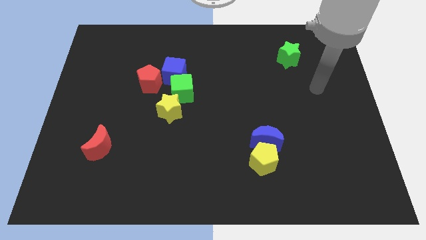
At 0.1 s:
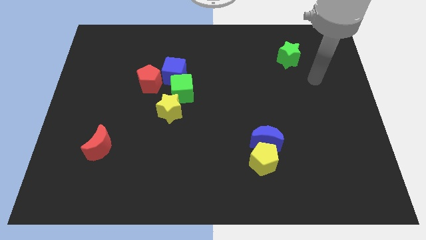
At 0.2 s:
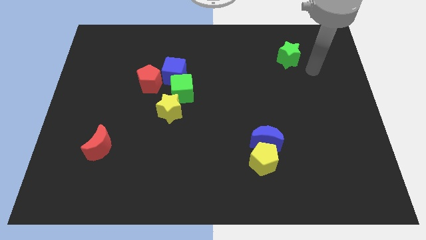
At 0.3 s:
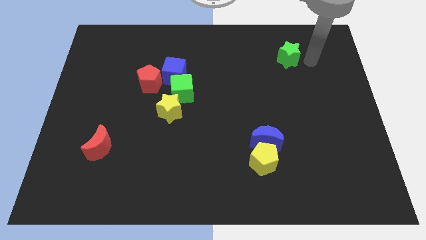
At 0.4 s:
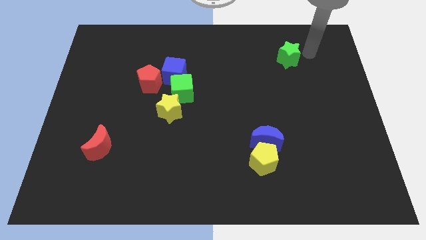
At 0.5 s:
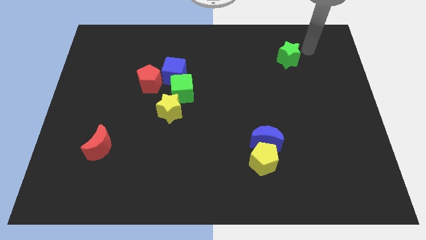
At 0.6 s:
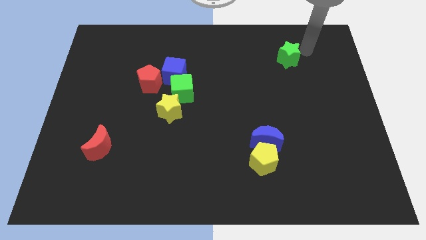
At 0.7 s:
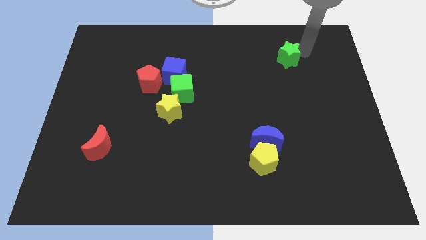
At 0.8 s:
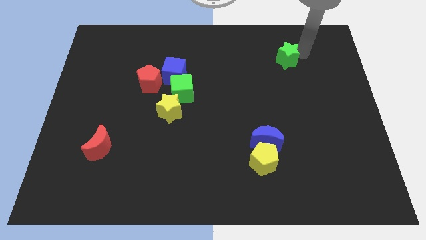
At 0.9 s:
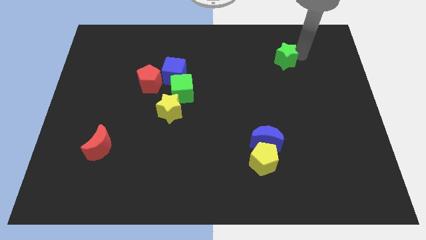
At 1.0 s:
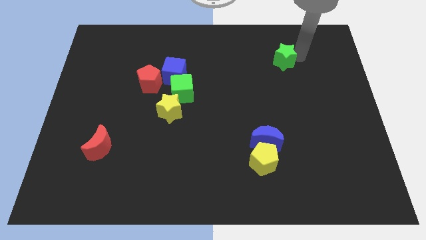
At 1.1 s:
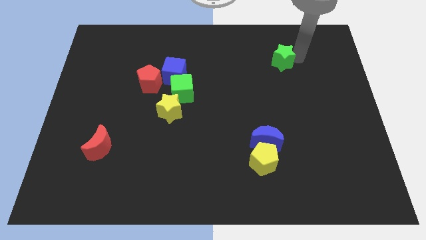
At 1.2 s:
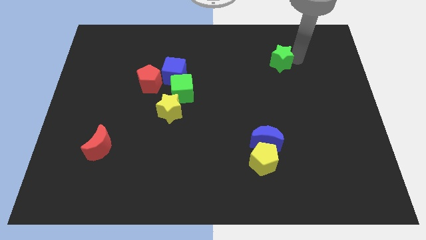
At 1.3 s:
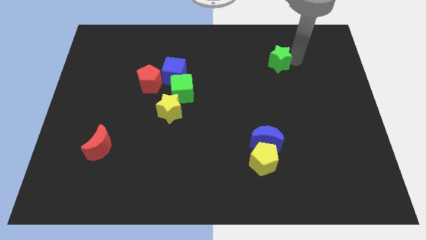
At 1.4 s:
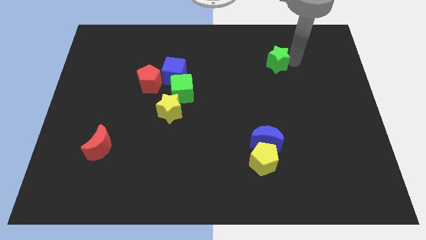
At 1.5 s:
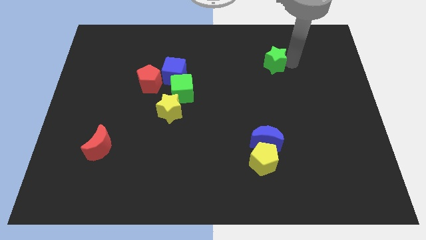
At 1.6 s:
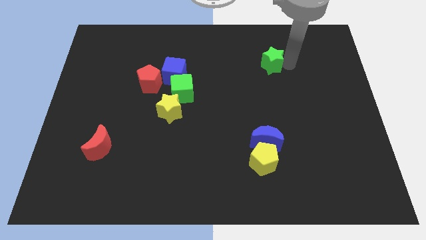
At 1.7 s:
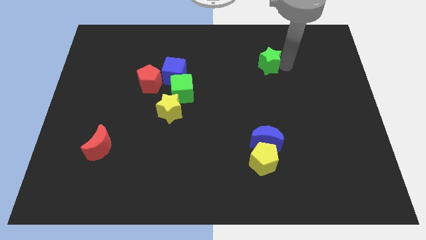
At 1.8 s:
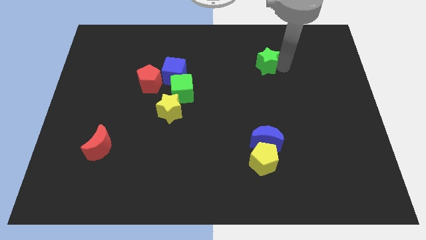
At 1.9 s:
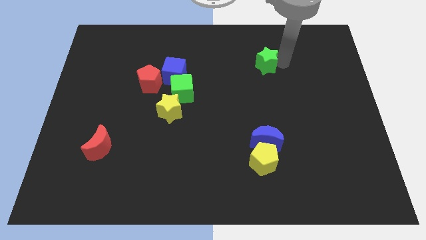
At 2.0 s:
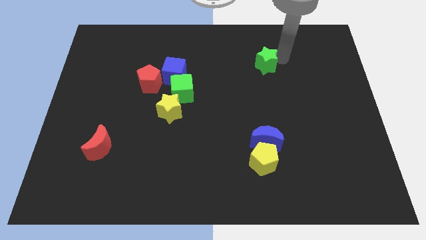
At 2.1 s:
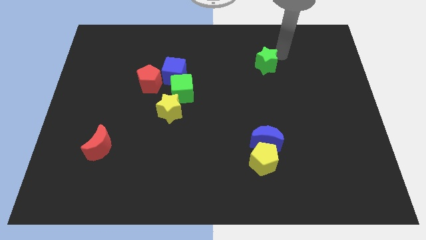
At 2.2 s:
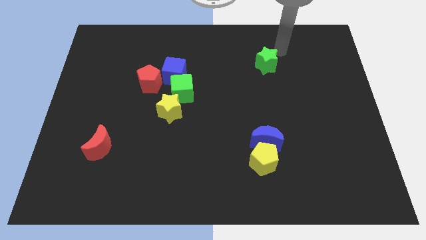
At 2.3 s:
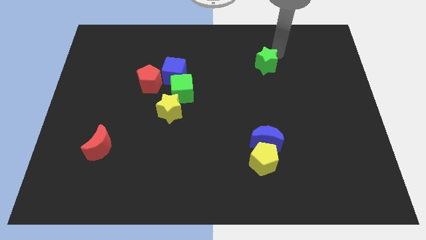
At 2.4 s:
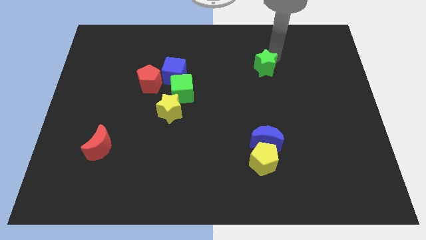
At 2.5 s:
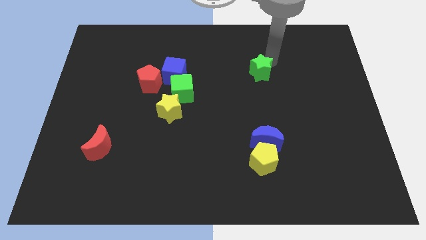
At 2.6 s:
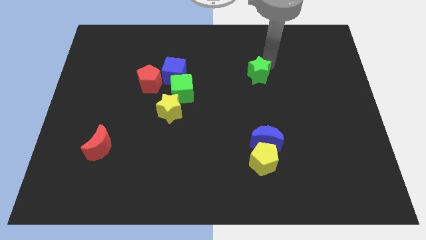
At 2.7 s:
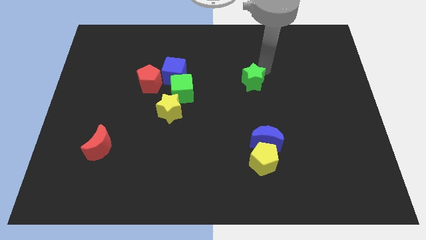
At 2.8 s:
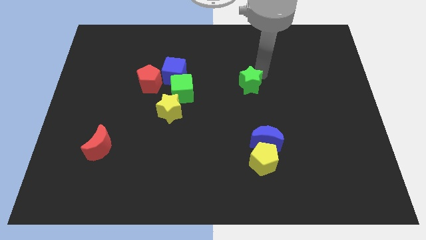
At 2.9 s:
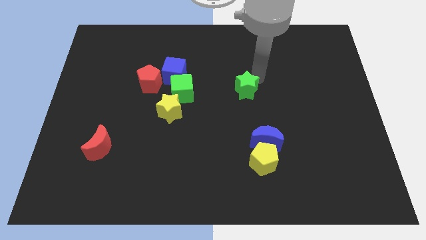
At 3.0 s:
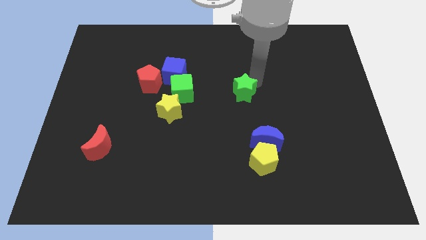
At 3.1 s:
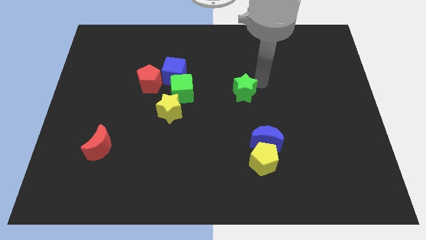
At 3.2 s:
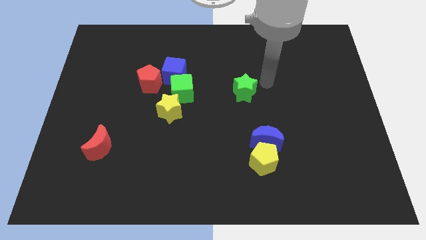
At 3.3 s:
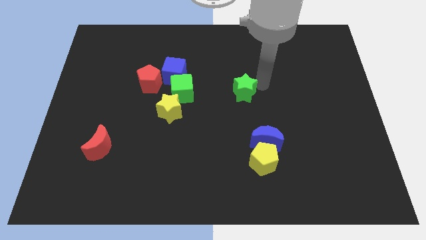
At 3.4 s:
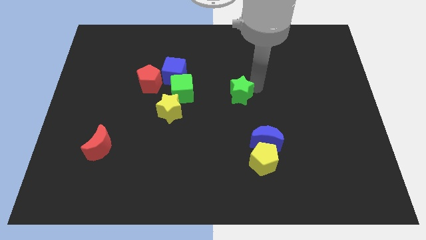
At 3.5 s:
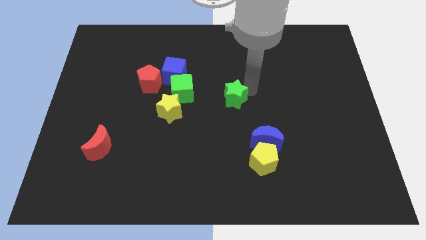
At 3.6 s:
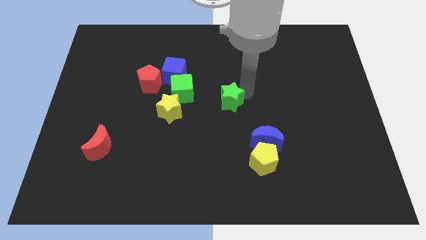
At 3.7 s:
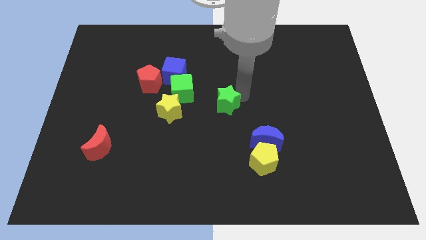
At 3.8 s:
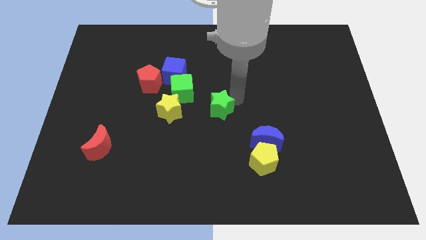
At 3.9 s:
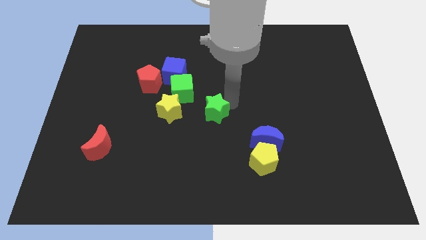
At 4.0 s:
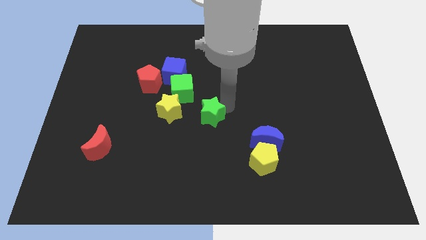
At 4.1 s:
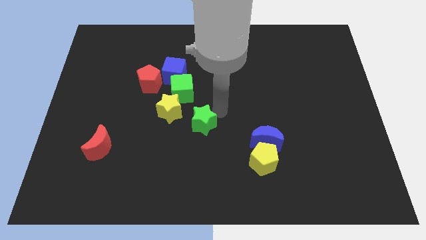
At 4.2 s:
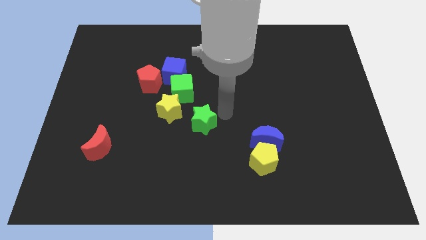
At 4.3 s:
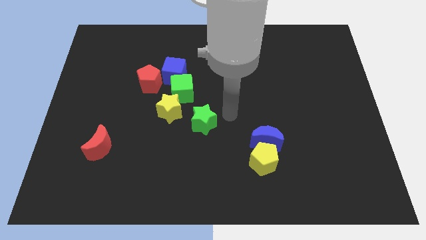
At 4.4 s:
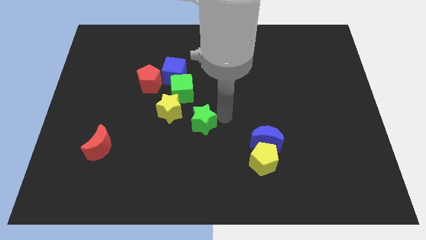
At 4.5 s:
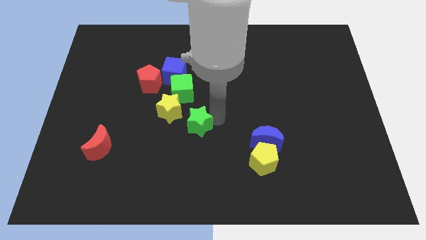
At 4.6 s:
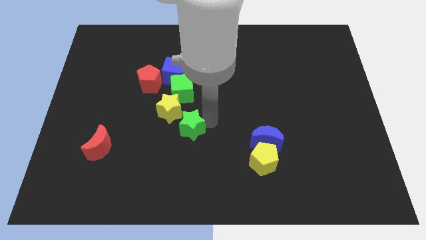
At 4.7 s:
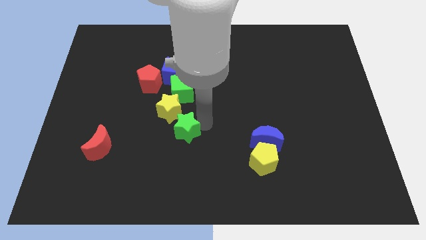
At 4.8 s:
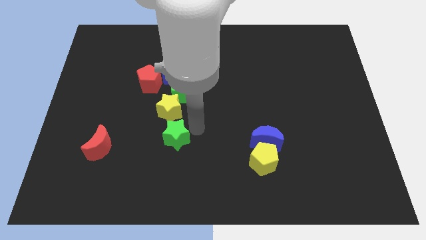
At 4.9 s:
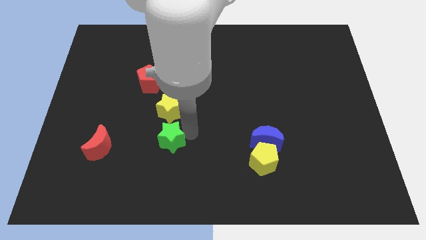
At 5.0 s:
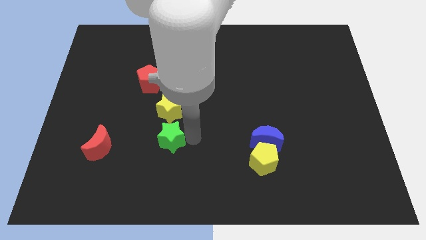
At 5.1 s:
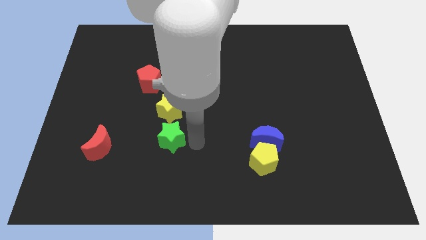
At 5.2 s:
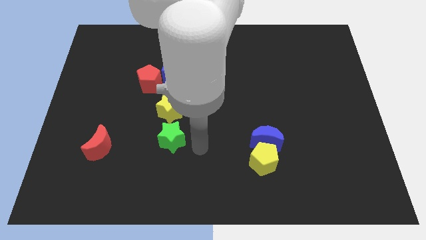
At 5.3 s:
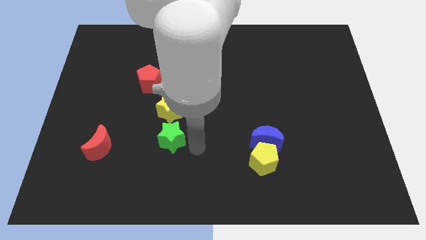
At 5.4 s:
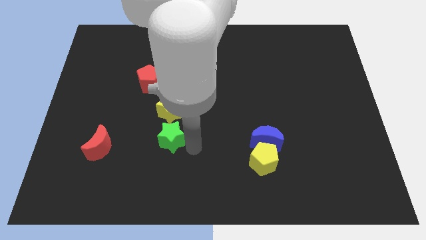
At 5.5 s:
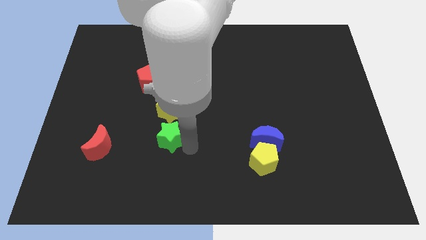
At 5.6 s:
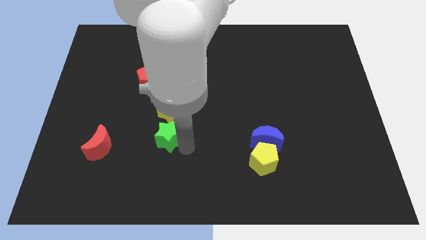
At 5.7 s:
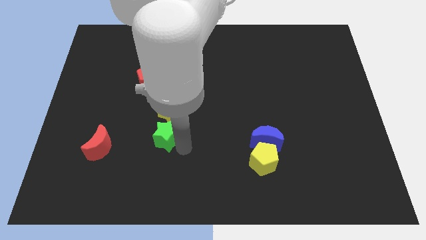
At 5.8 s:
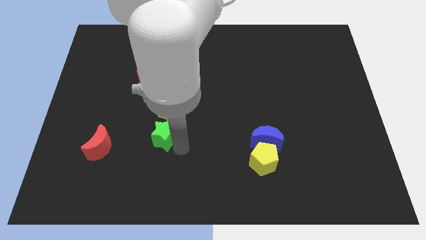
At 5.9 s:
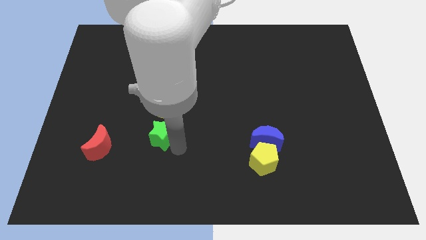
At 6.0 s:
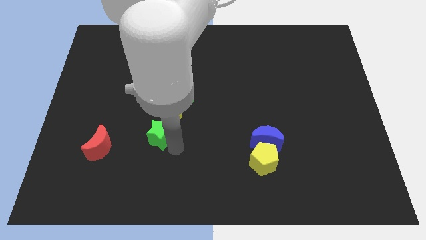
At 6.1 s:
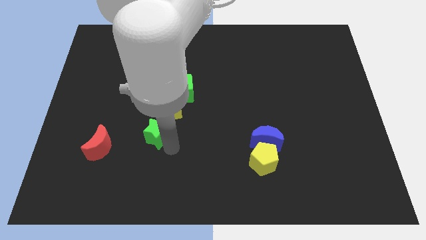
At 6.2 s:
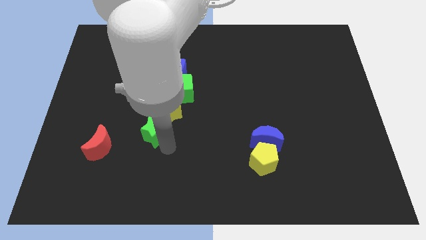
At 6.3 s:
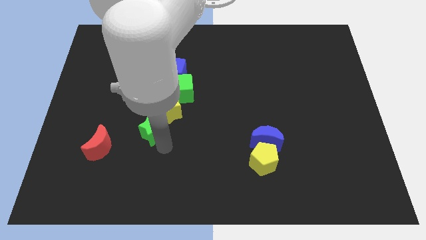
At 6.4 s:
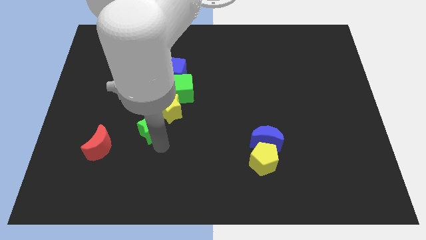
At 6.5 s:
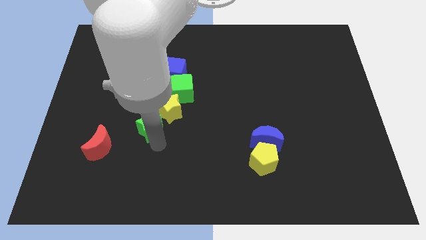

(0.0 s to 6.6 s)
put the green star diagonally up and to the right of the red moon
